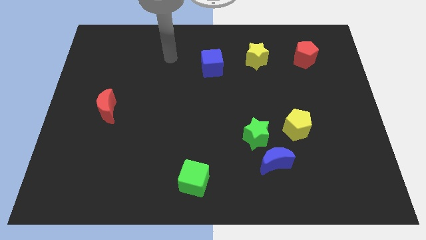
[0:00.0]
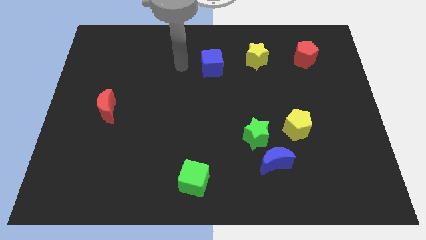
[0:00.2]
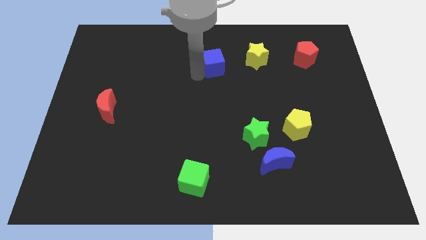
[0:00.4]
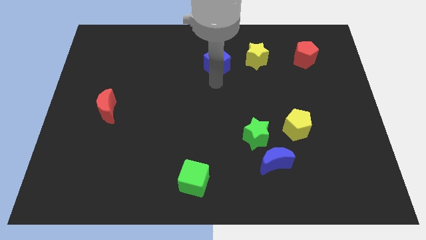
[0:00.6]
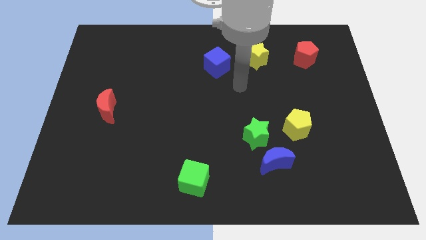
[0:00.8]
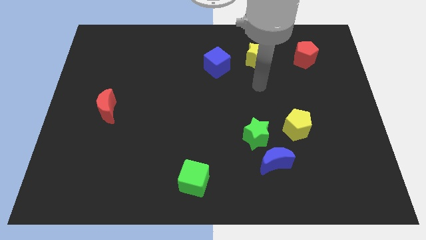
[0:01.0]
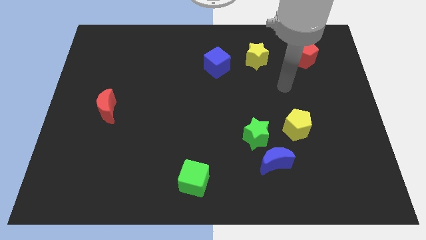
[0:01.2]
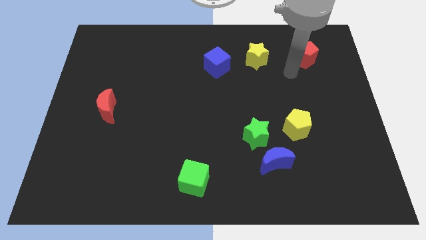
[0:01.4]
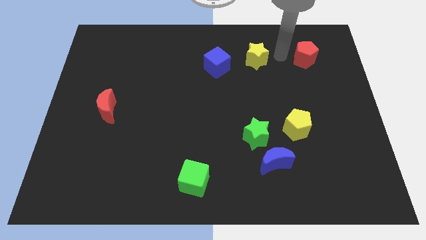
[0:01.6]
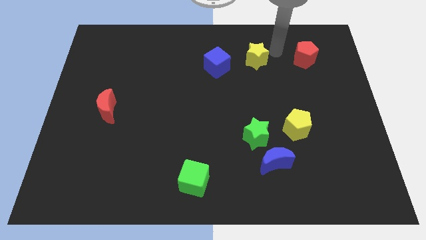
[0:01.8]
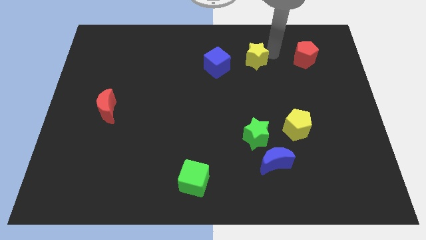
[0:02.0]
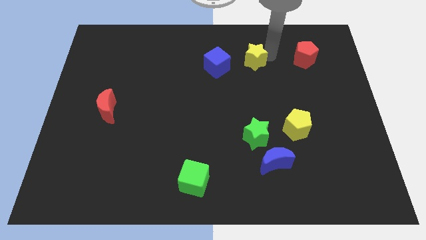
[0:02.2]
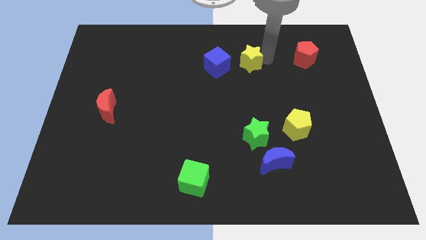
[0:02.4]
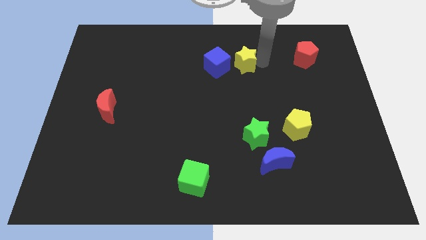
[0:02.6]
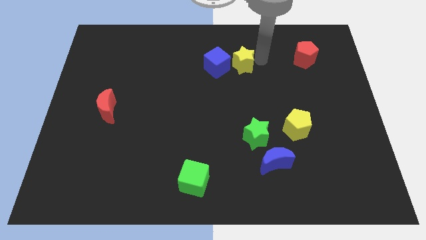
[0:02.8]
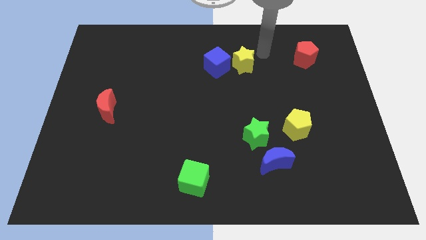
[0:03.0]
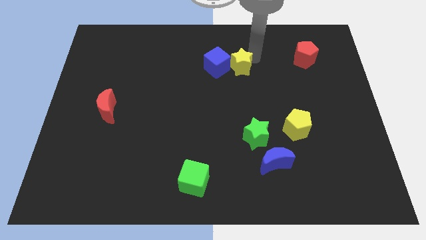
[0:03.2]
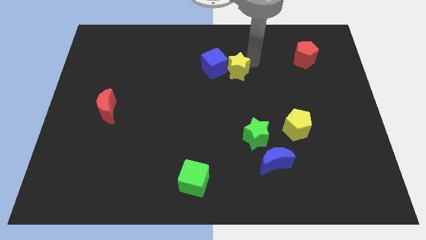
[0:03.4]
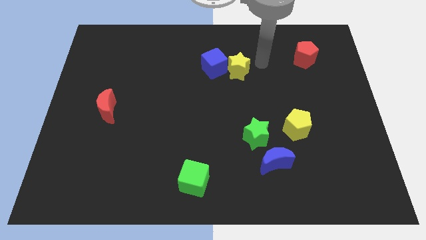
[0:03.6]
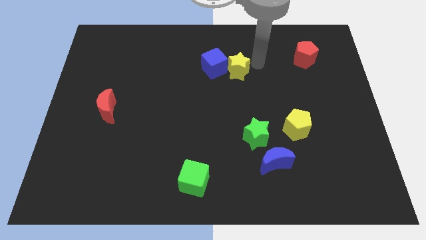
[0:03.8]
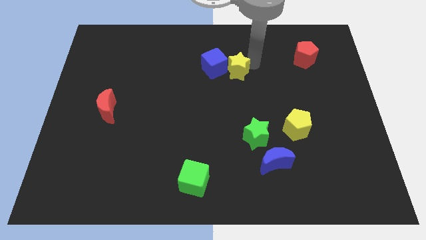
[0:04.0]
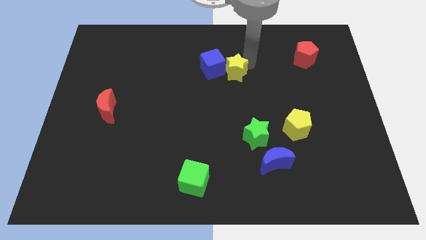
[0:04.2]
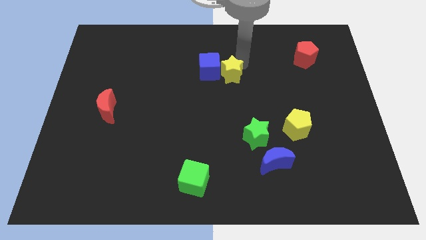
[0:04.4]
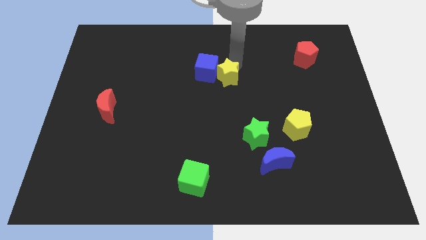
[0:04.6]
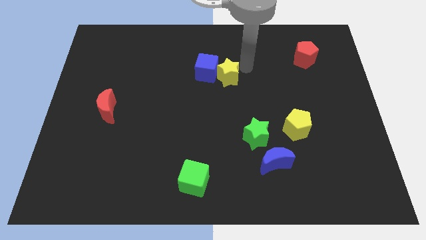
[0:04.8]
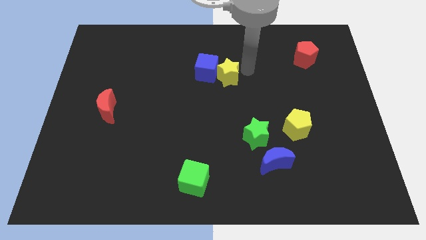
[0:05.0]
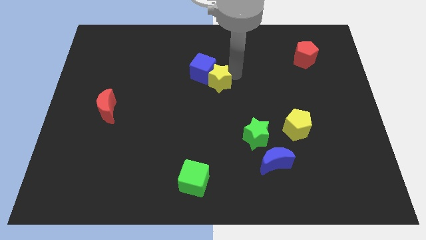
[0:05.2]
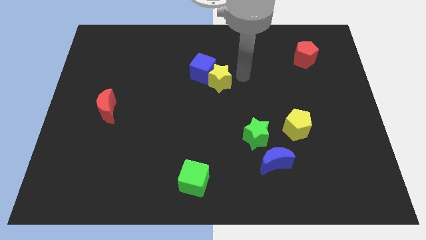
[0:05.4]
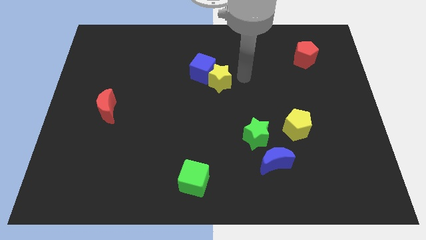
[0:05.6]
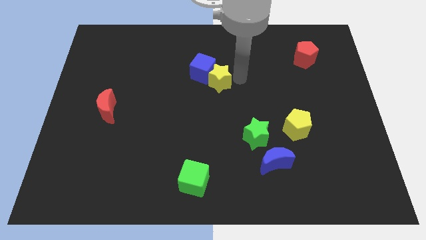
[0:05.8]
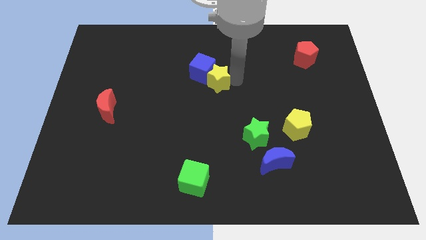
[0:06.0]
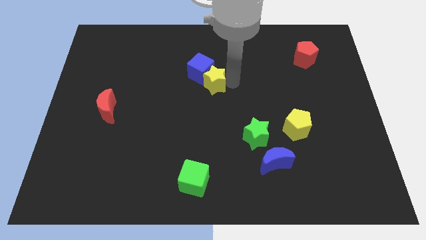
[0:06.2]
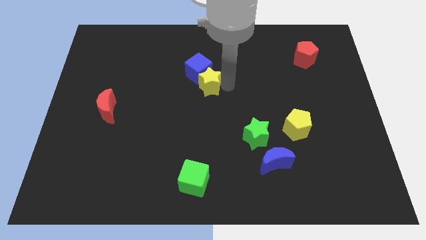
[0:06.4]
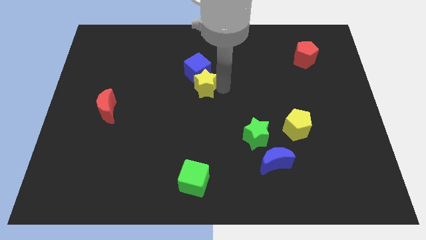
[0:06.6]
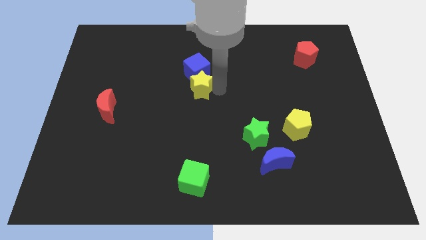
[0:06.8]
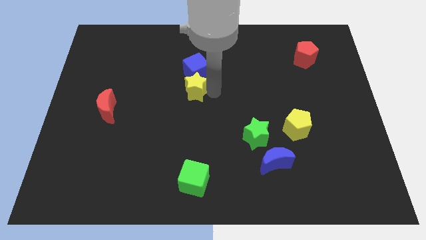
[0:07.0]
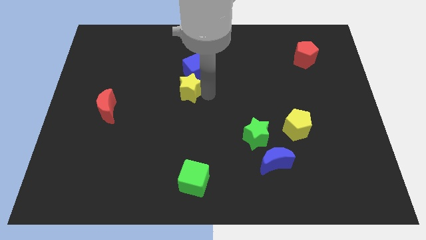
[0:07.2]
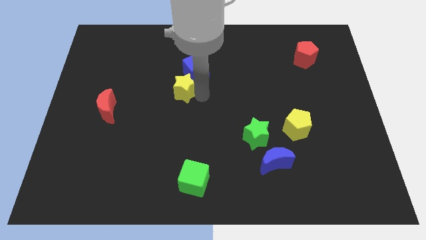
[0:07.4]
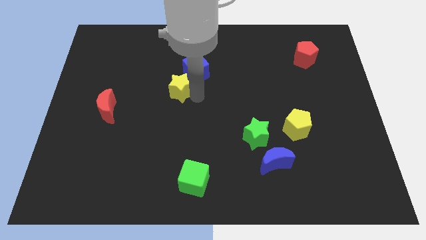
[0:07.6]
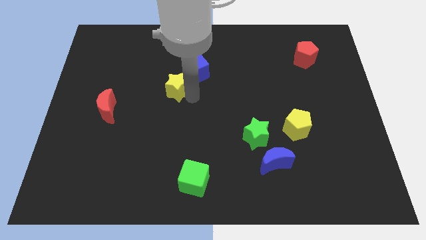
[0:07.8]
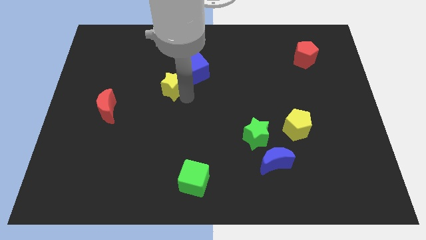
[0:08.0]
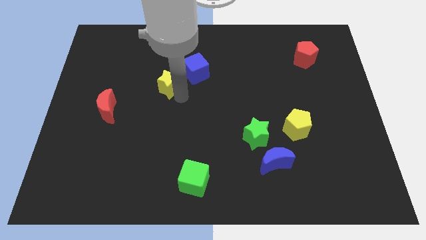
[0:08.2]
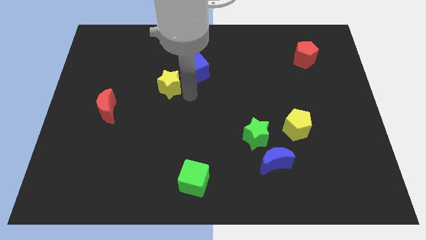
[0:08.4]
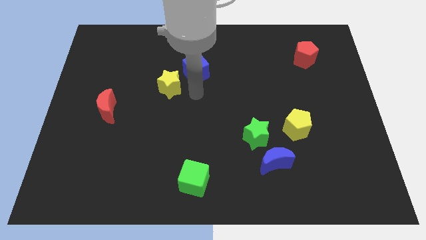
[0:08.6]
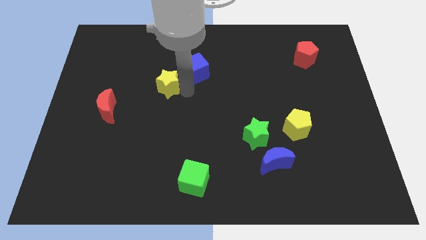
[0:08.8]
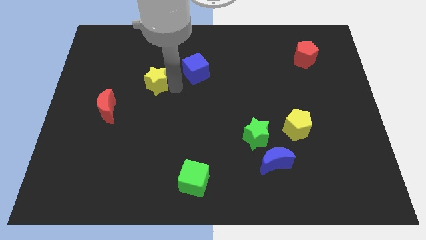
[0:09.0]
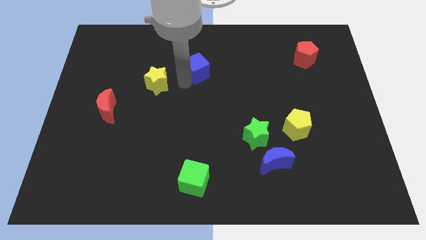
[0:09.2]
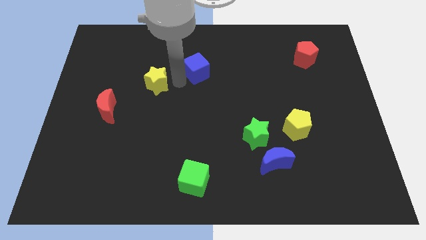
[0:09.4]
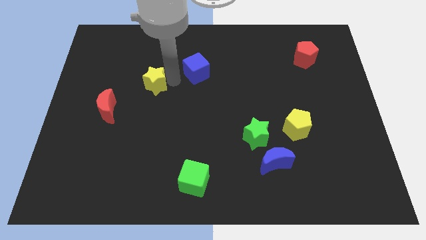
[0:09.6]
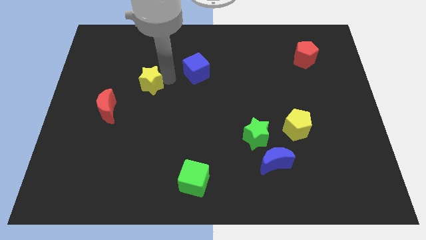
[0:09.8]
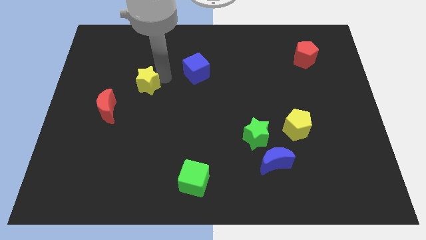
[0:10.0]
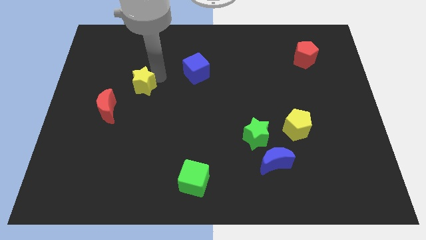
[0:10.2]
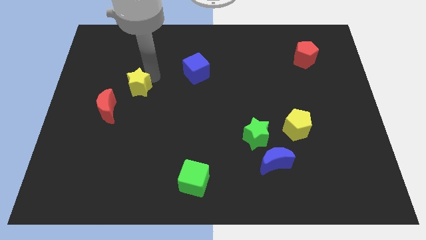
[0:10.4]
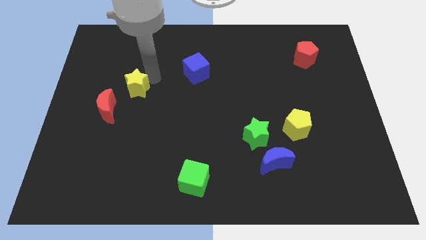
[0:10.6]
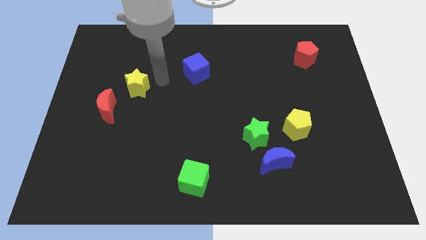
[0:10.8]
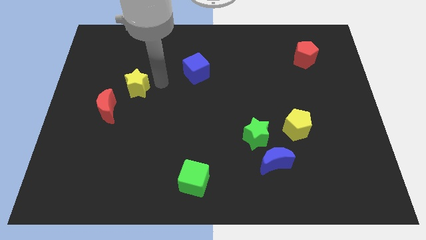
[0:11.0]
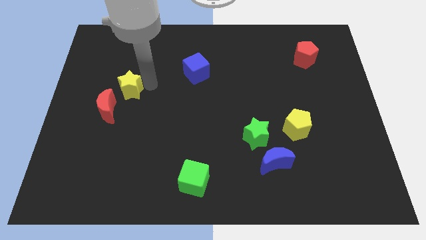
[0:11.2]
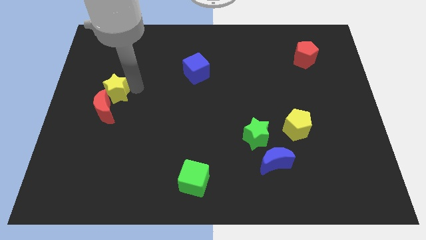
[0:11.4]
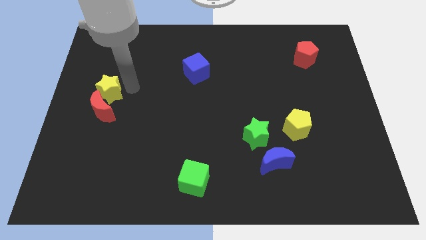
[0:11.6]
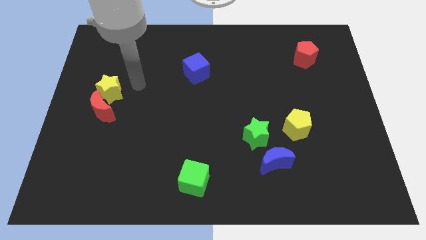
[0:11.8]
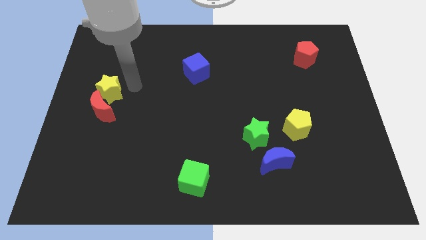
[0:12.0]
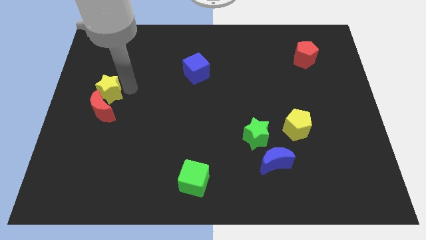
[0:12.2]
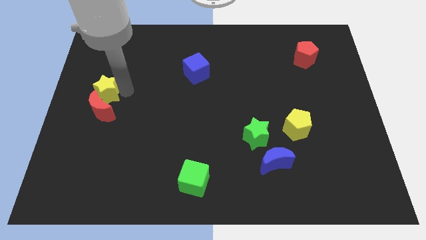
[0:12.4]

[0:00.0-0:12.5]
move the yellow star to the left side of the board
